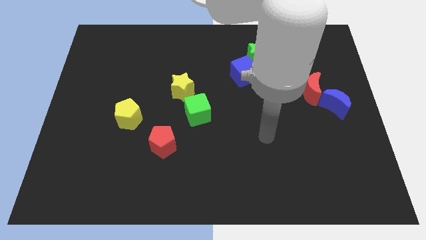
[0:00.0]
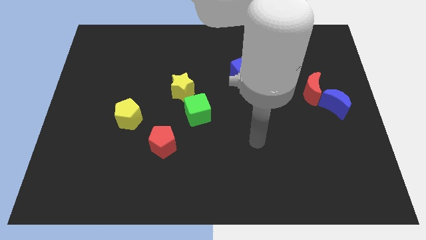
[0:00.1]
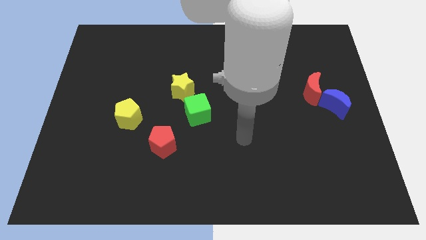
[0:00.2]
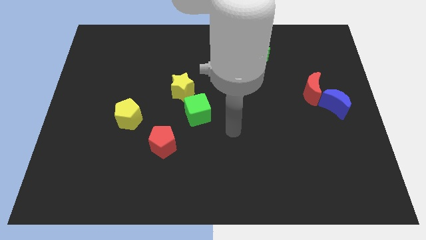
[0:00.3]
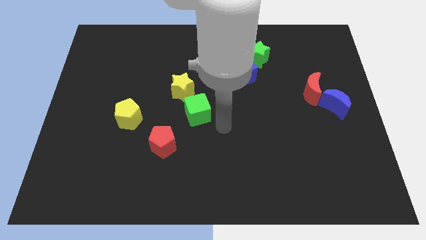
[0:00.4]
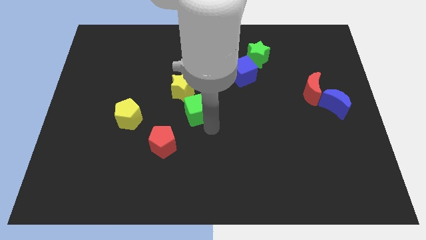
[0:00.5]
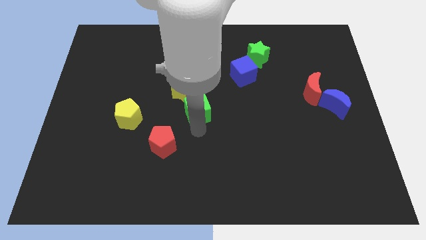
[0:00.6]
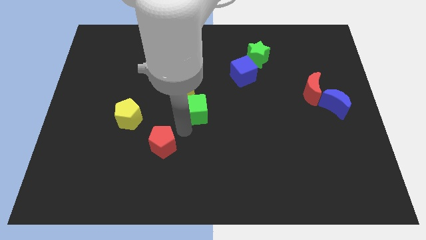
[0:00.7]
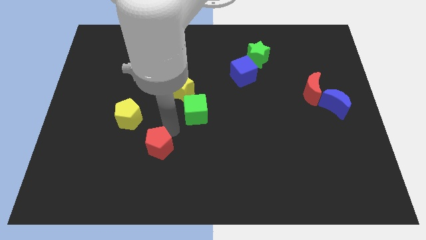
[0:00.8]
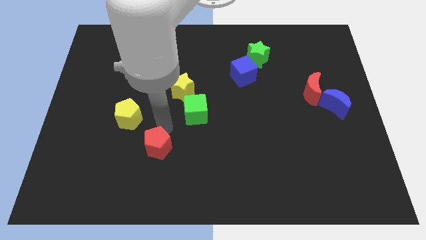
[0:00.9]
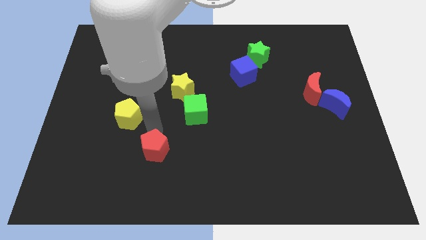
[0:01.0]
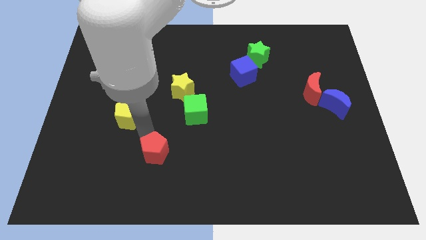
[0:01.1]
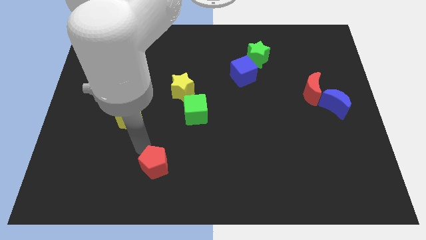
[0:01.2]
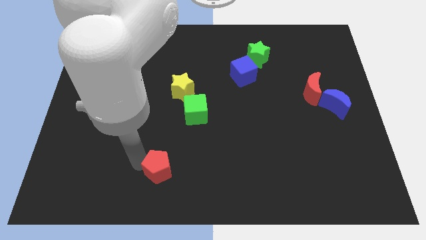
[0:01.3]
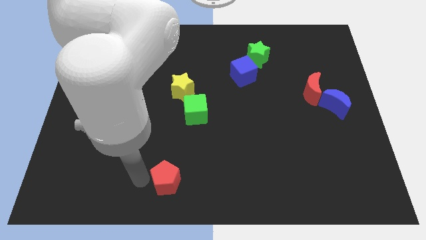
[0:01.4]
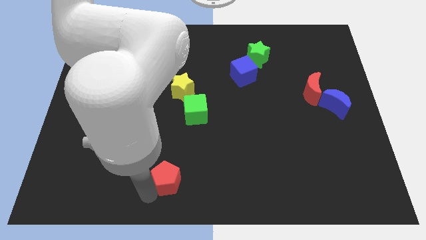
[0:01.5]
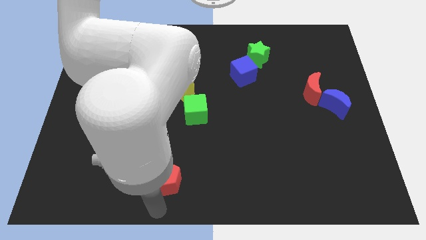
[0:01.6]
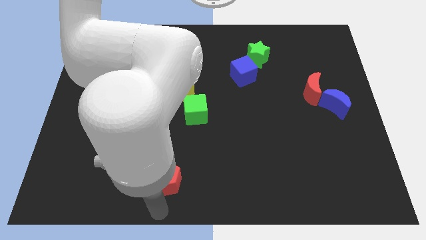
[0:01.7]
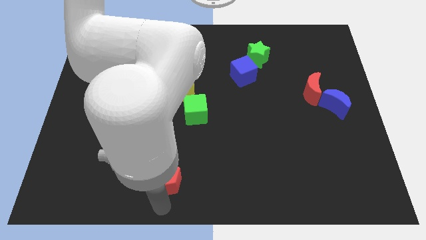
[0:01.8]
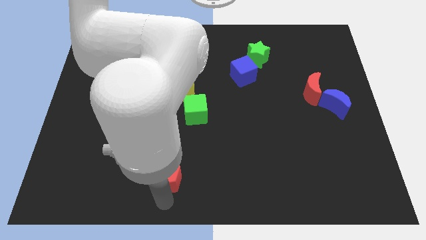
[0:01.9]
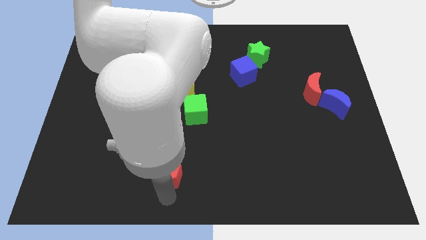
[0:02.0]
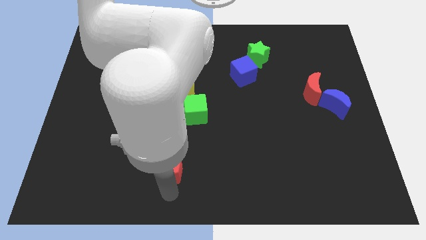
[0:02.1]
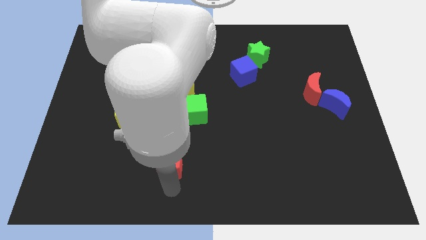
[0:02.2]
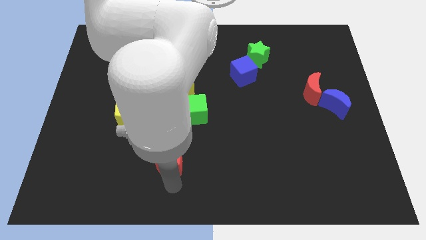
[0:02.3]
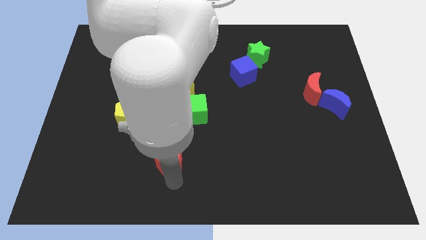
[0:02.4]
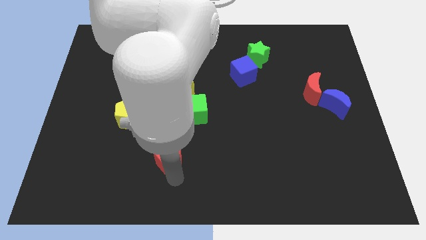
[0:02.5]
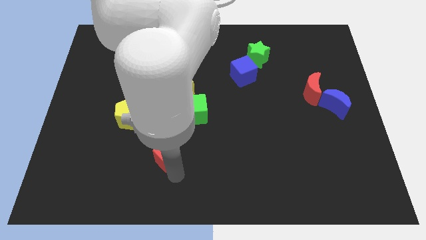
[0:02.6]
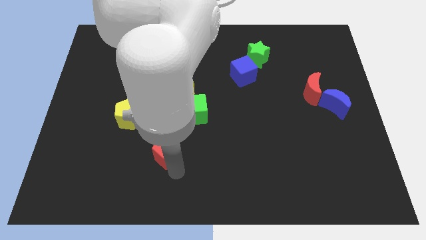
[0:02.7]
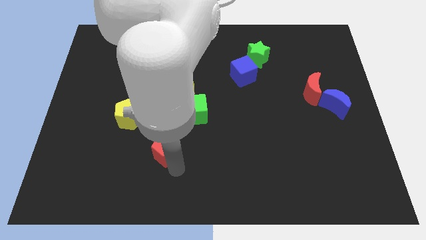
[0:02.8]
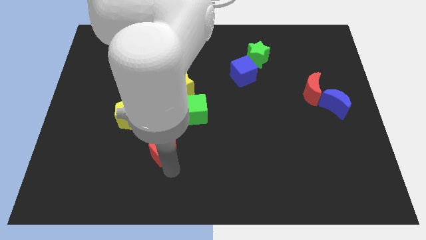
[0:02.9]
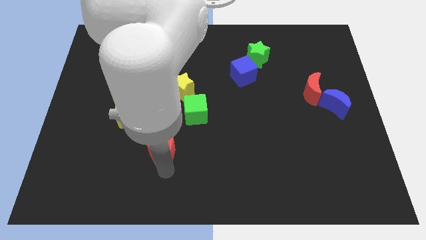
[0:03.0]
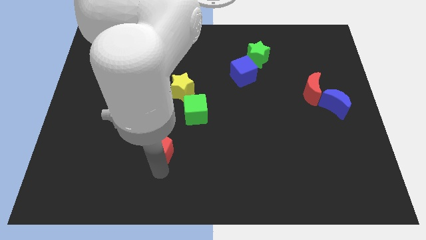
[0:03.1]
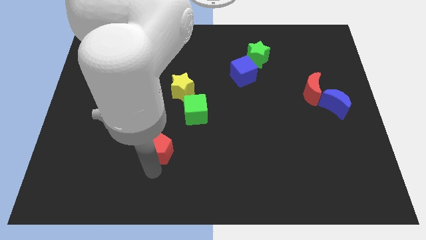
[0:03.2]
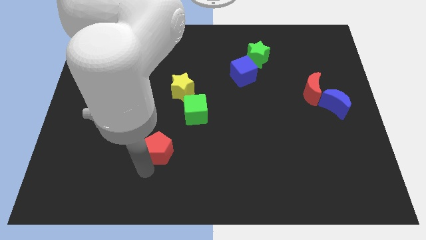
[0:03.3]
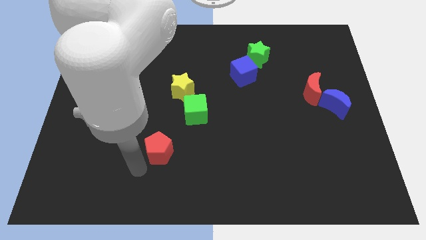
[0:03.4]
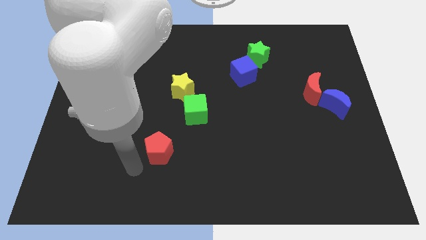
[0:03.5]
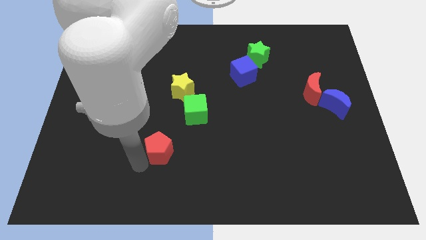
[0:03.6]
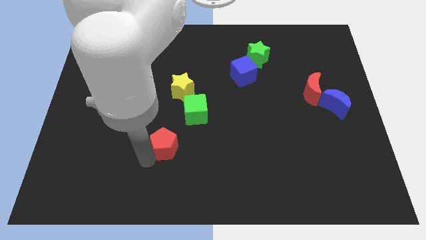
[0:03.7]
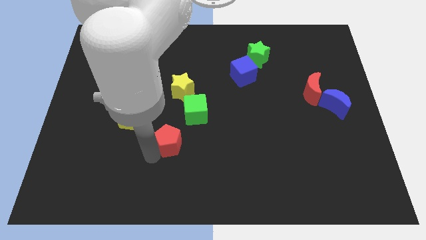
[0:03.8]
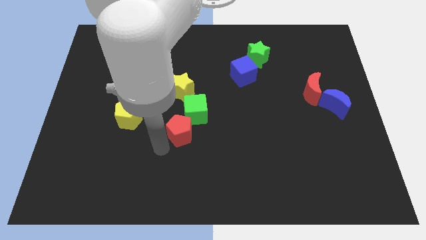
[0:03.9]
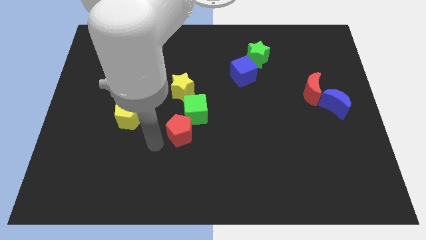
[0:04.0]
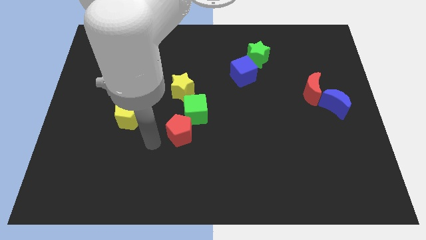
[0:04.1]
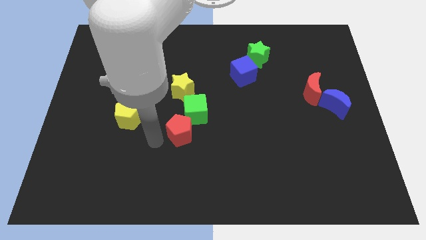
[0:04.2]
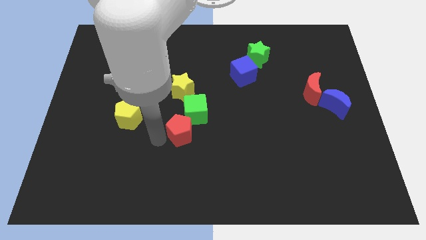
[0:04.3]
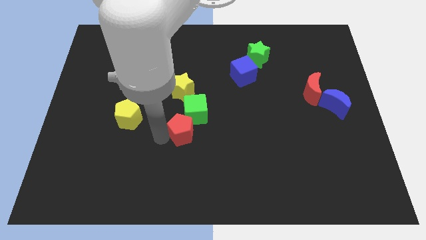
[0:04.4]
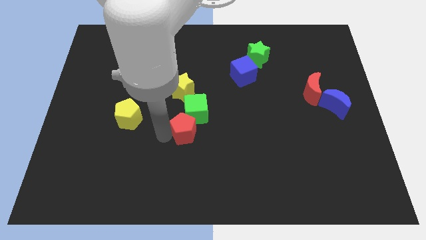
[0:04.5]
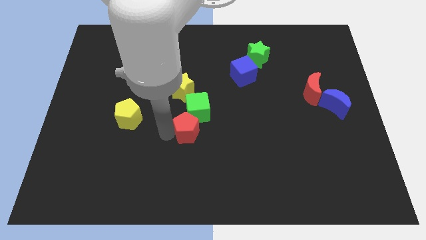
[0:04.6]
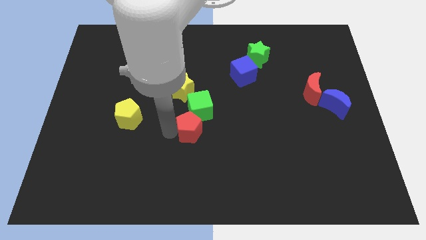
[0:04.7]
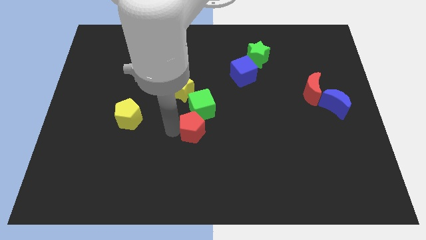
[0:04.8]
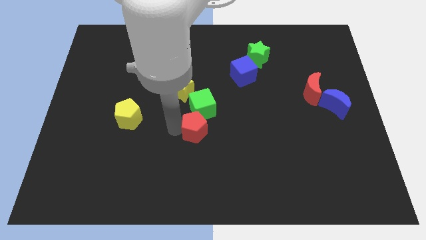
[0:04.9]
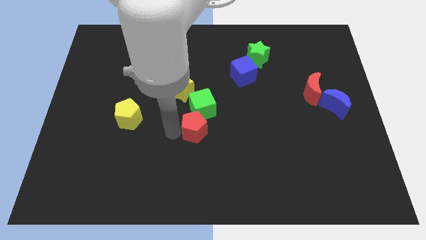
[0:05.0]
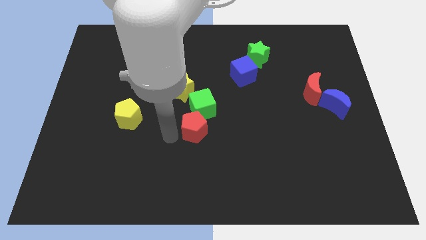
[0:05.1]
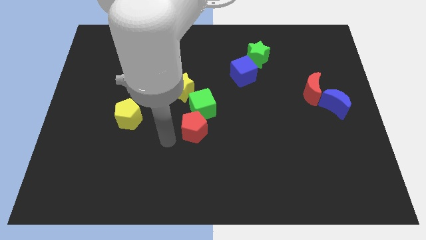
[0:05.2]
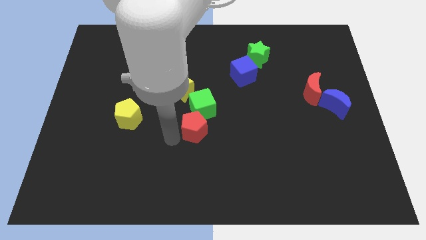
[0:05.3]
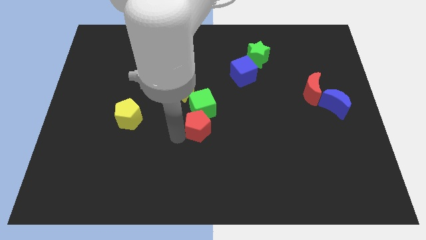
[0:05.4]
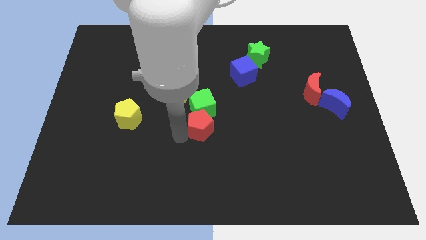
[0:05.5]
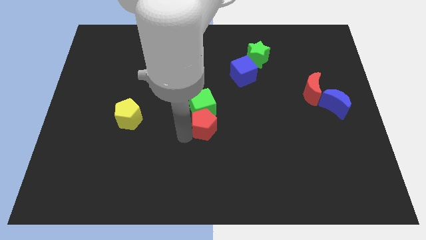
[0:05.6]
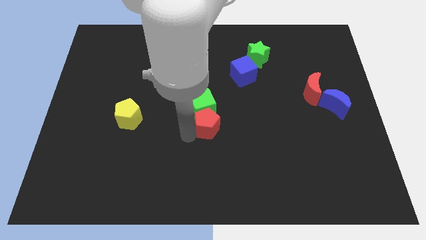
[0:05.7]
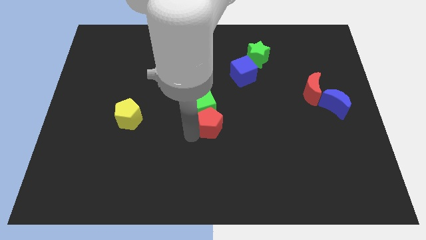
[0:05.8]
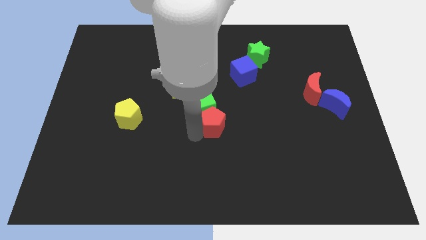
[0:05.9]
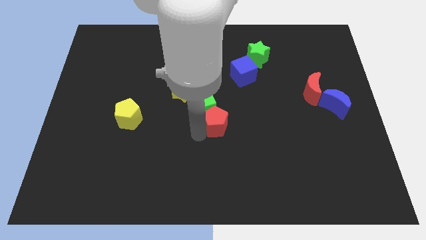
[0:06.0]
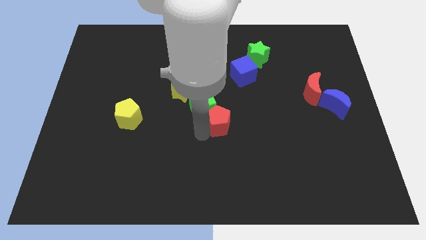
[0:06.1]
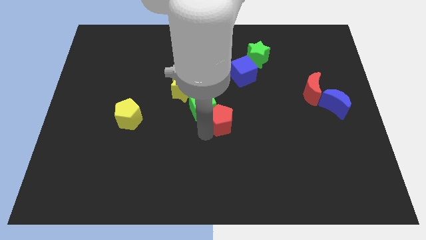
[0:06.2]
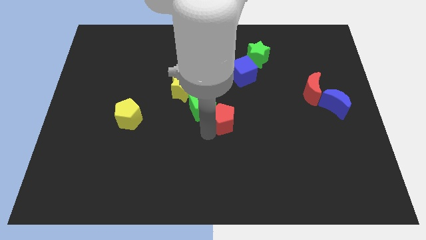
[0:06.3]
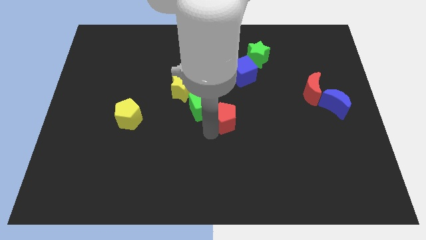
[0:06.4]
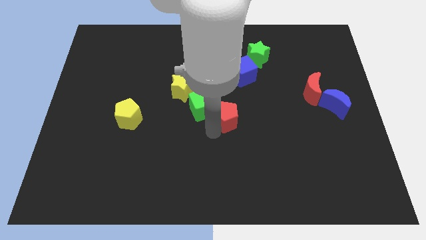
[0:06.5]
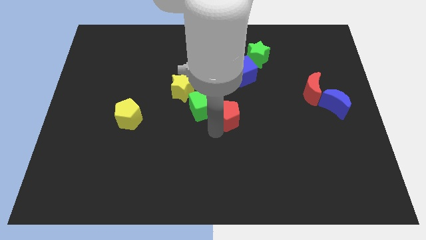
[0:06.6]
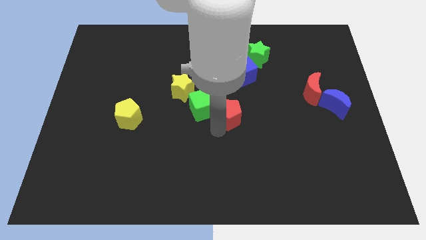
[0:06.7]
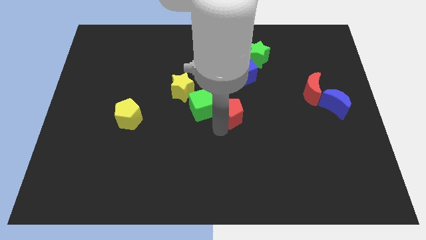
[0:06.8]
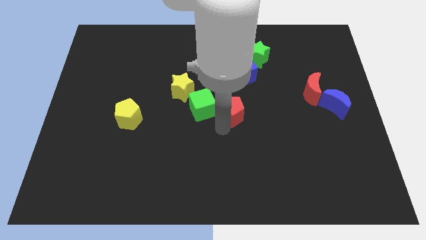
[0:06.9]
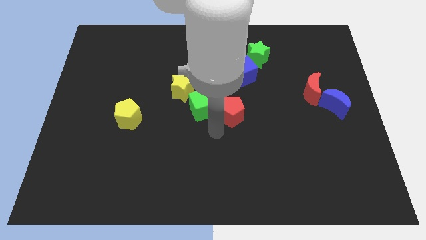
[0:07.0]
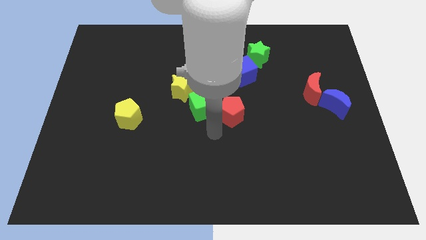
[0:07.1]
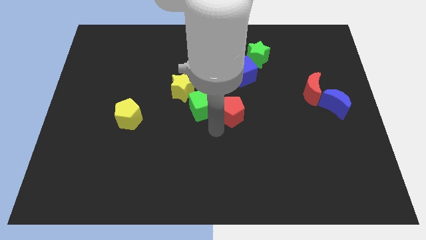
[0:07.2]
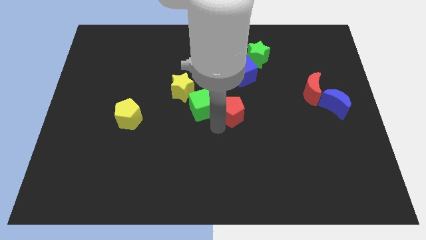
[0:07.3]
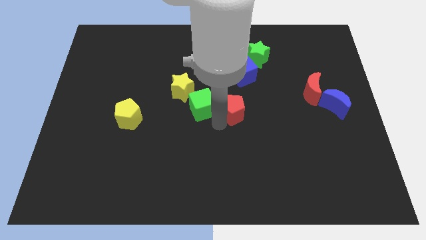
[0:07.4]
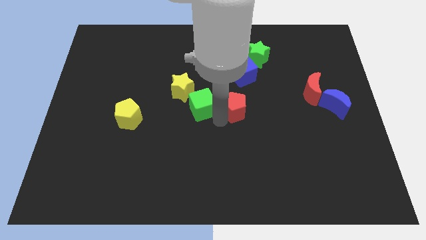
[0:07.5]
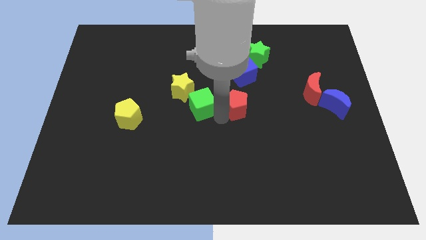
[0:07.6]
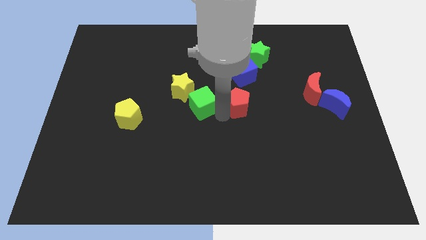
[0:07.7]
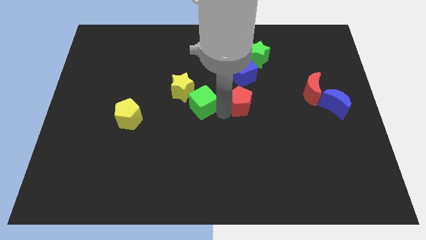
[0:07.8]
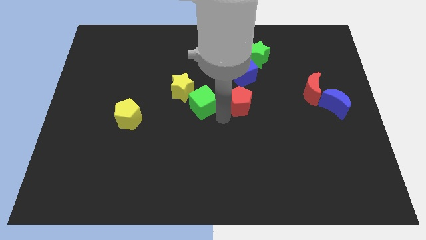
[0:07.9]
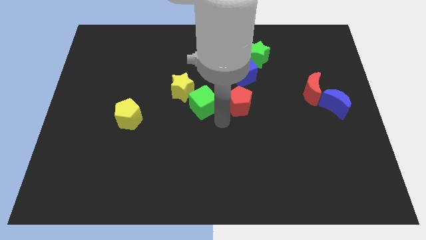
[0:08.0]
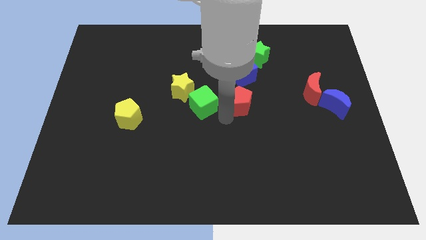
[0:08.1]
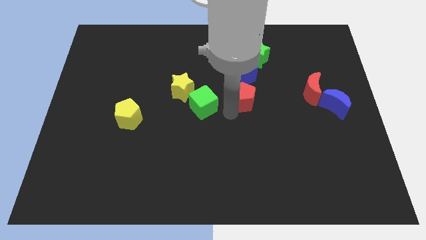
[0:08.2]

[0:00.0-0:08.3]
slide the red pentagon diagonally up and to the right
